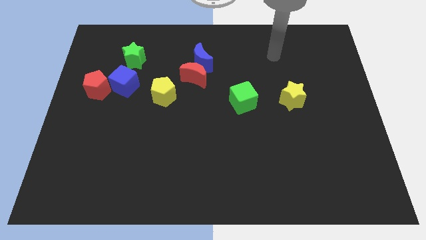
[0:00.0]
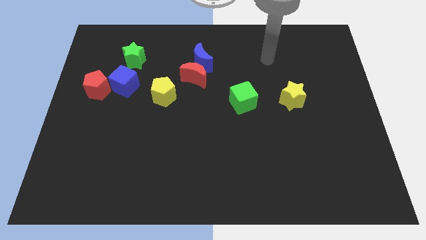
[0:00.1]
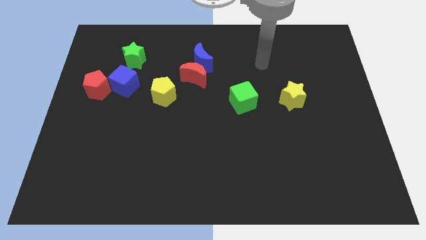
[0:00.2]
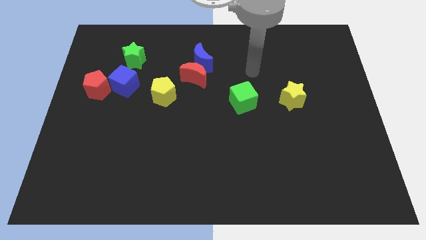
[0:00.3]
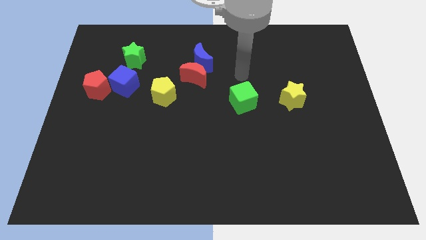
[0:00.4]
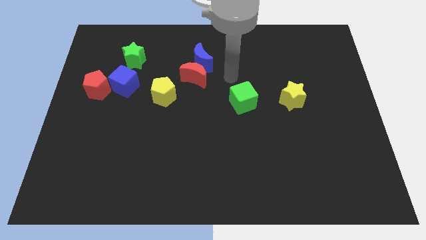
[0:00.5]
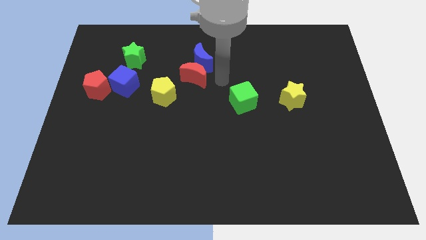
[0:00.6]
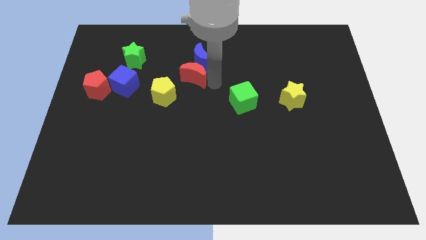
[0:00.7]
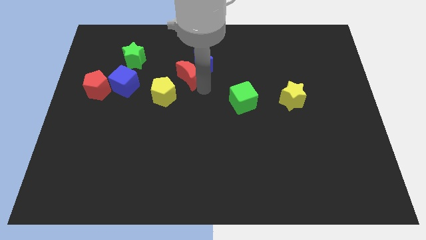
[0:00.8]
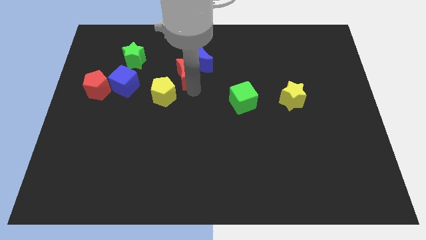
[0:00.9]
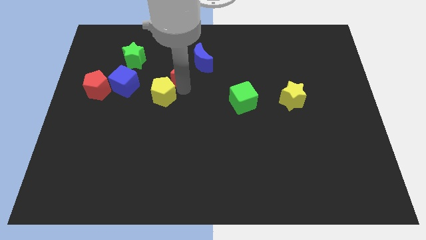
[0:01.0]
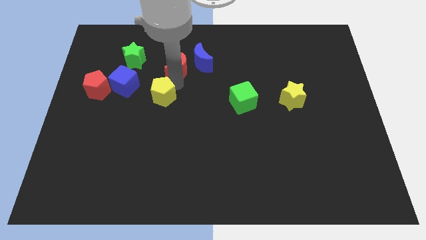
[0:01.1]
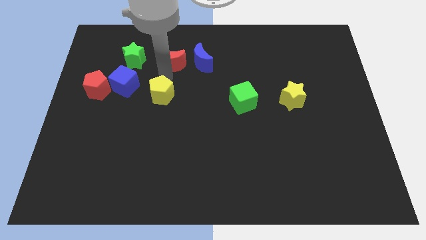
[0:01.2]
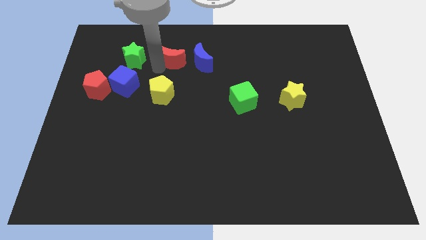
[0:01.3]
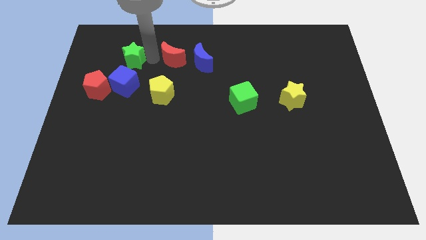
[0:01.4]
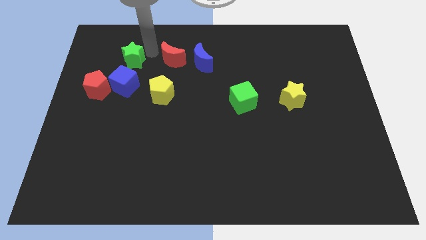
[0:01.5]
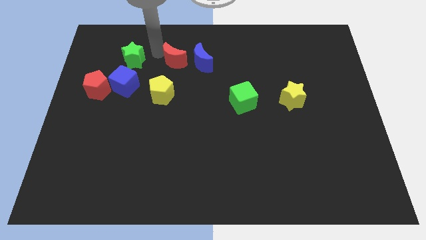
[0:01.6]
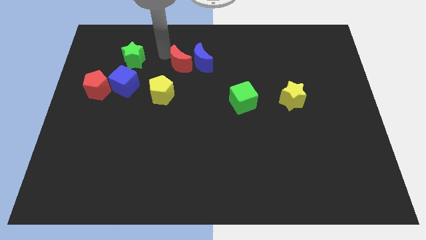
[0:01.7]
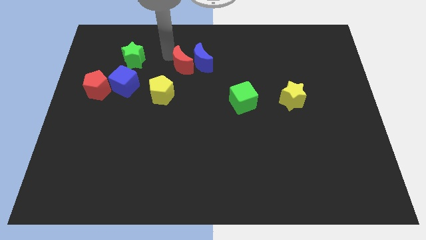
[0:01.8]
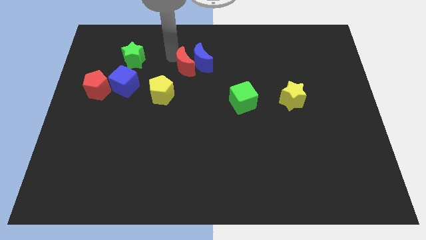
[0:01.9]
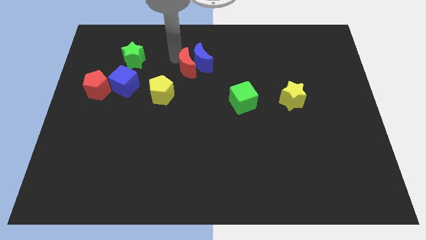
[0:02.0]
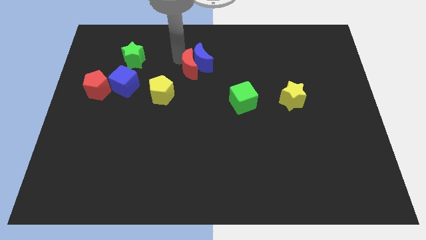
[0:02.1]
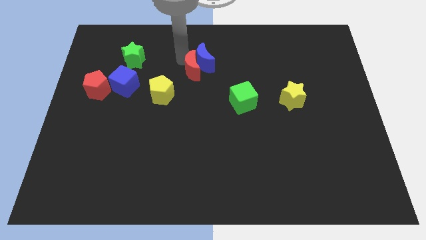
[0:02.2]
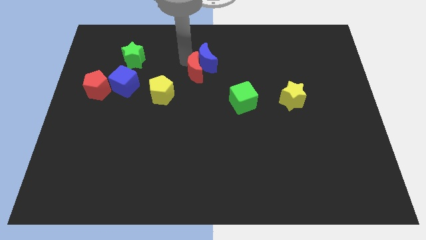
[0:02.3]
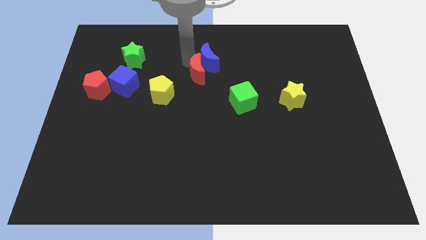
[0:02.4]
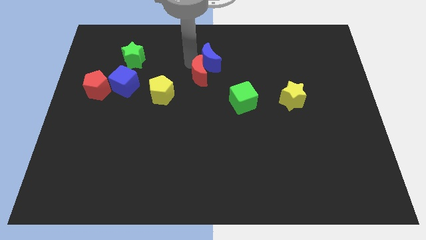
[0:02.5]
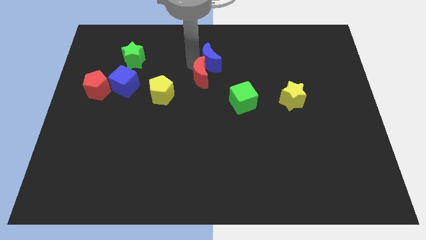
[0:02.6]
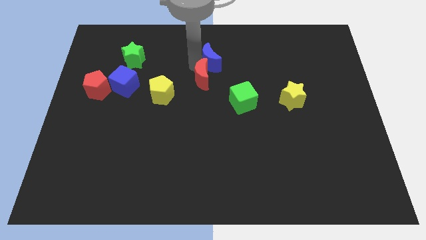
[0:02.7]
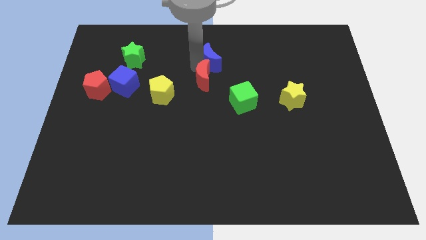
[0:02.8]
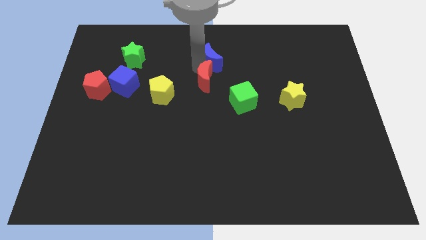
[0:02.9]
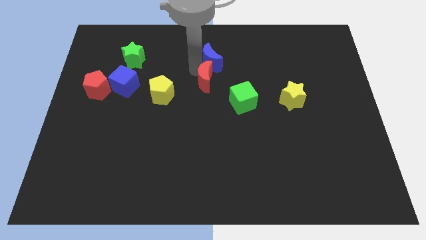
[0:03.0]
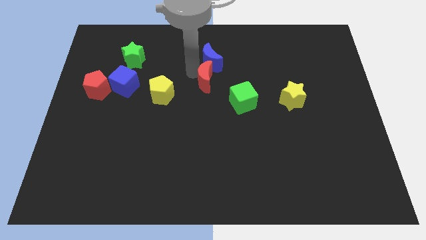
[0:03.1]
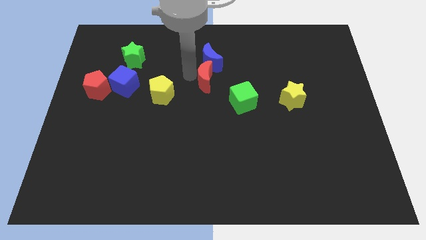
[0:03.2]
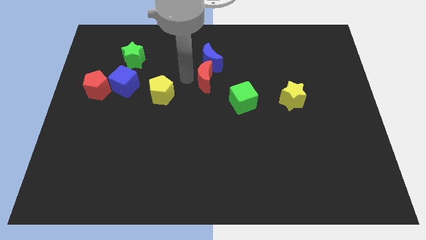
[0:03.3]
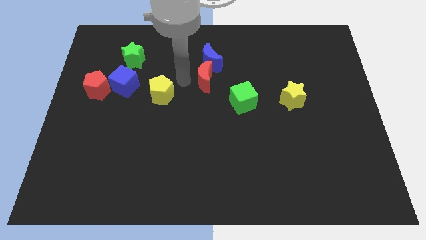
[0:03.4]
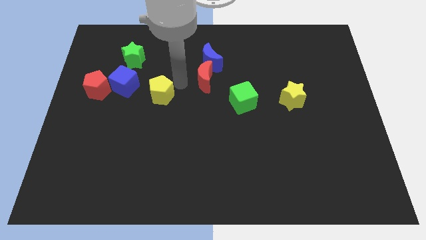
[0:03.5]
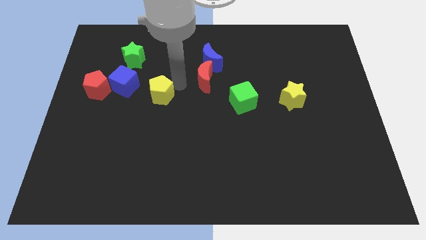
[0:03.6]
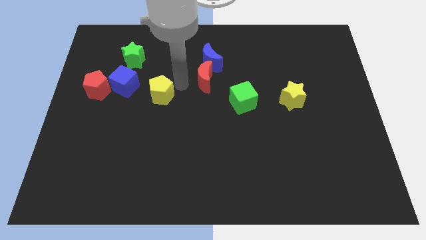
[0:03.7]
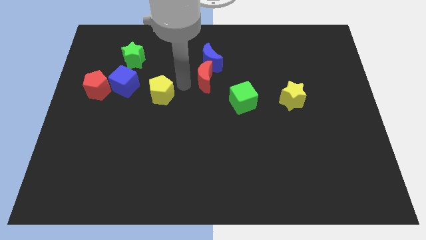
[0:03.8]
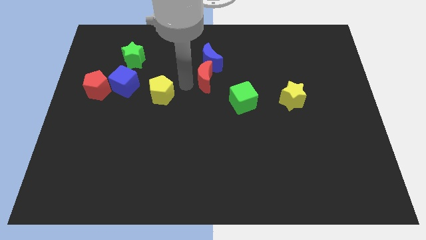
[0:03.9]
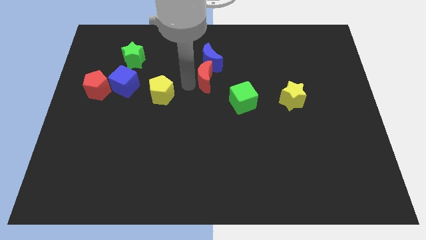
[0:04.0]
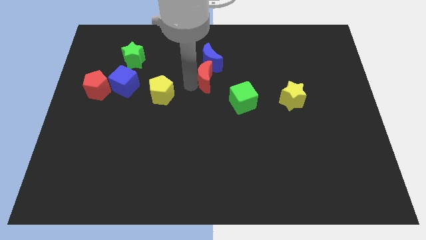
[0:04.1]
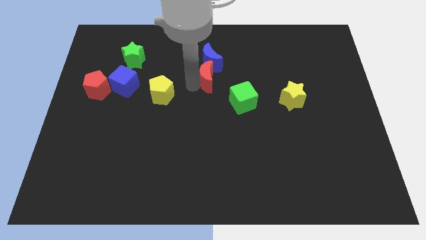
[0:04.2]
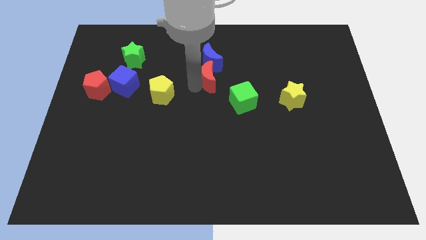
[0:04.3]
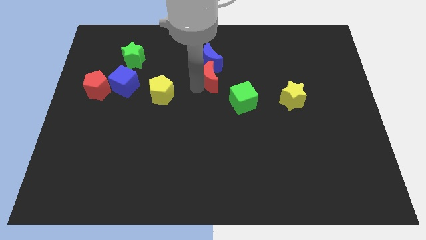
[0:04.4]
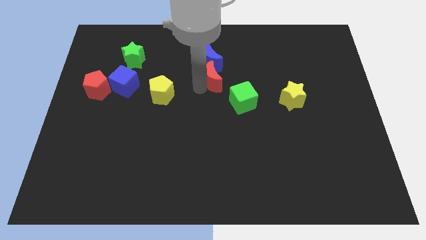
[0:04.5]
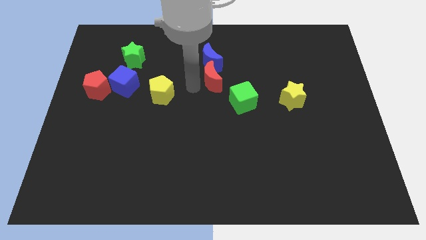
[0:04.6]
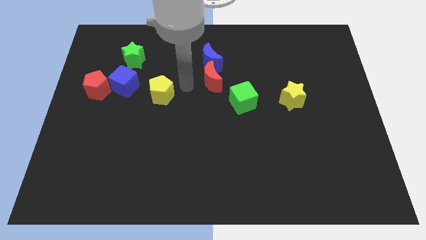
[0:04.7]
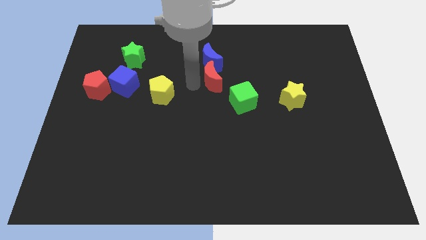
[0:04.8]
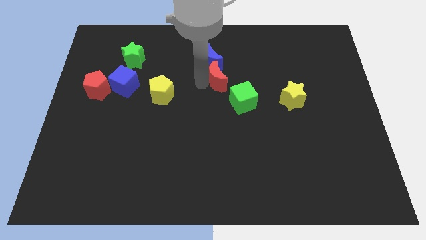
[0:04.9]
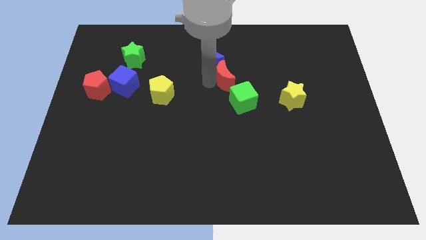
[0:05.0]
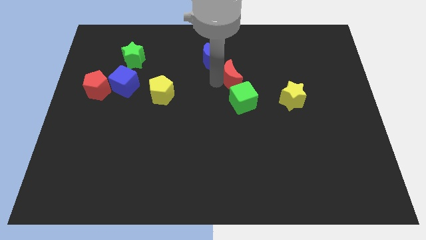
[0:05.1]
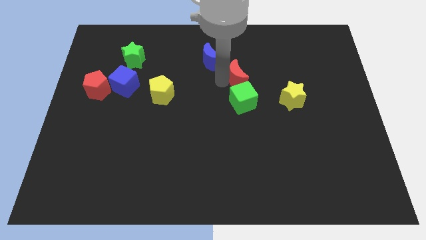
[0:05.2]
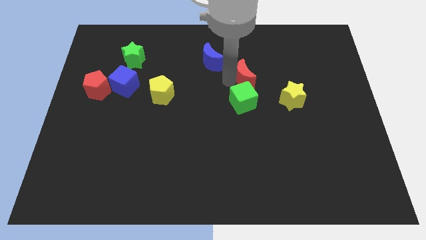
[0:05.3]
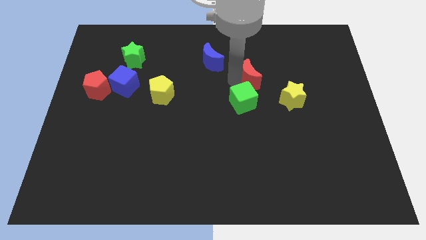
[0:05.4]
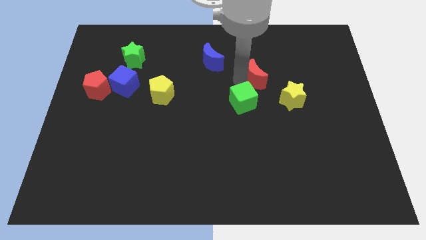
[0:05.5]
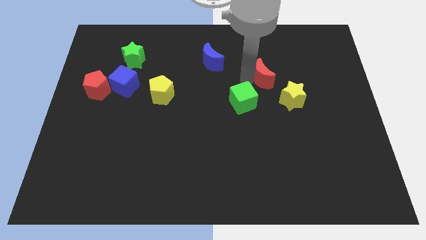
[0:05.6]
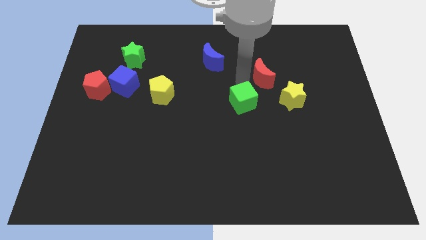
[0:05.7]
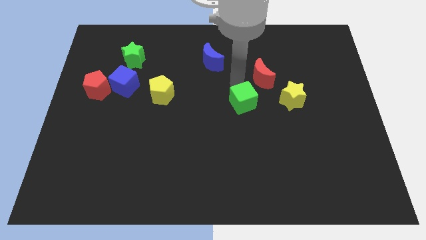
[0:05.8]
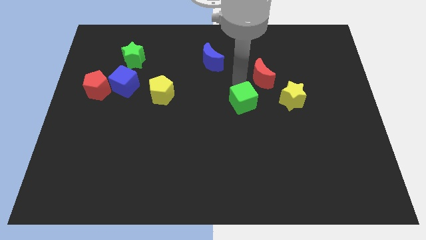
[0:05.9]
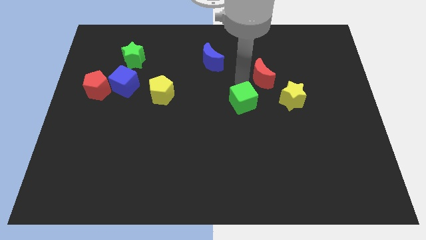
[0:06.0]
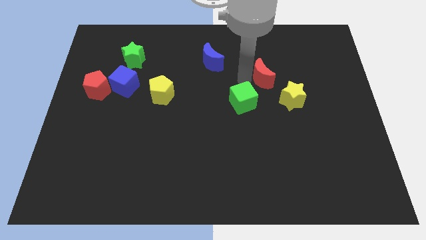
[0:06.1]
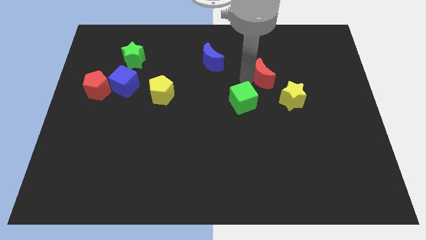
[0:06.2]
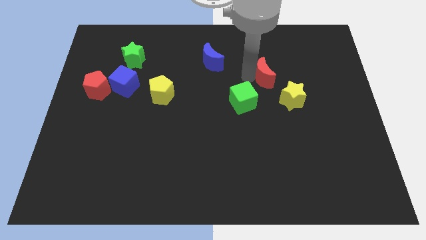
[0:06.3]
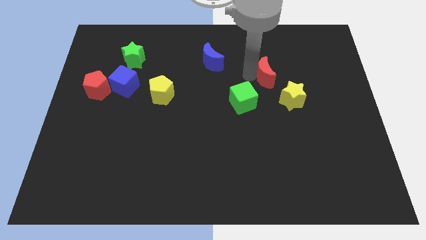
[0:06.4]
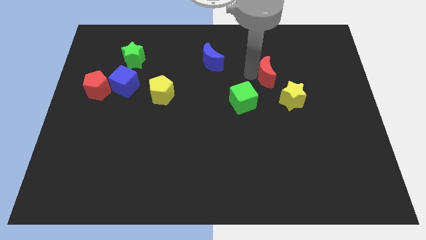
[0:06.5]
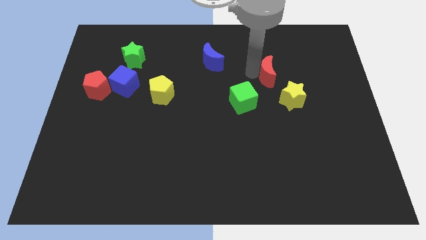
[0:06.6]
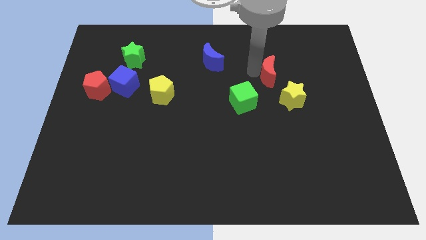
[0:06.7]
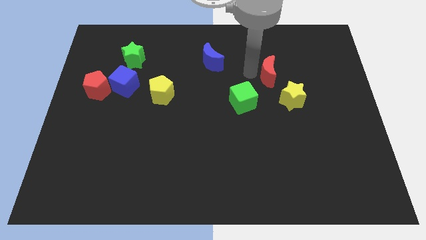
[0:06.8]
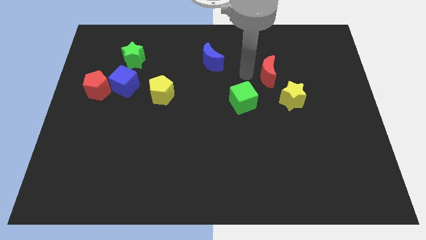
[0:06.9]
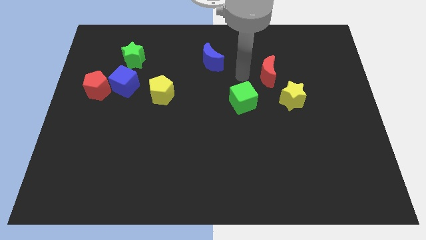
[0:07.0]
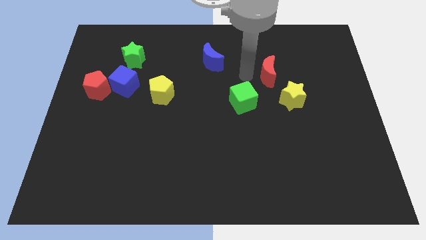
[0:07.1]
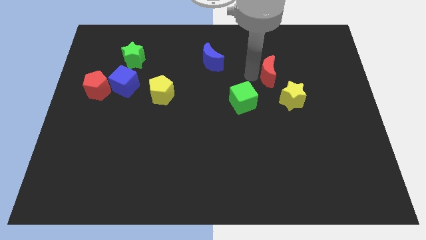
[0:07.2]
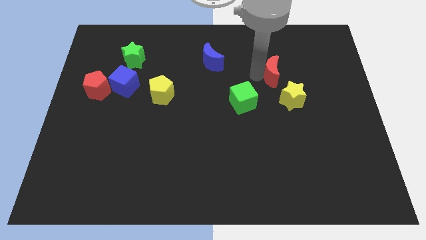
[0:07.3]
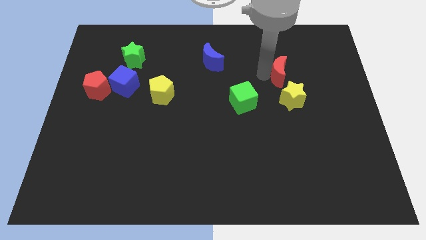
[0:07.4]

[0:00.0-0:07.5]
move the red moon to the right

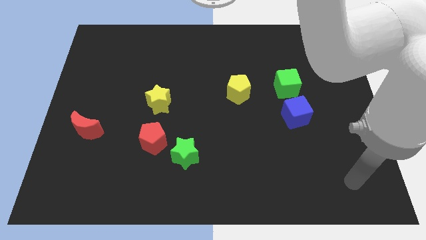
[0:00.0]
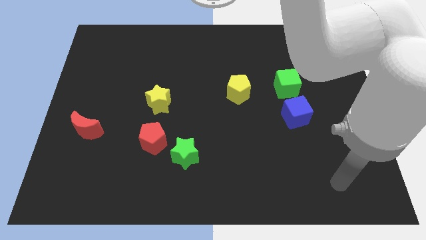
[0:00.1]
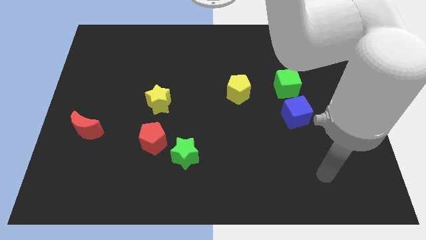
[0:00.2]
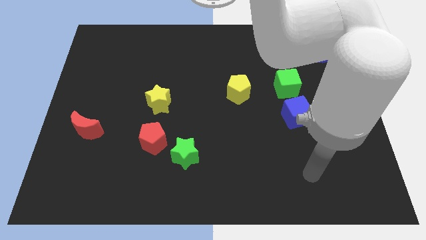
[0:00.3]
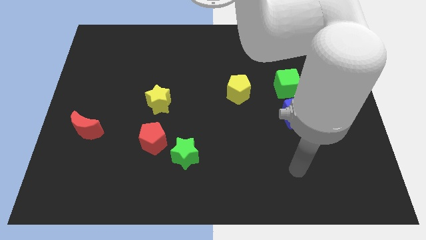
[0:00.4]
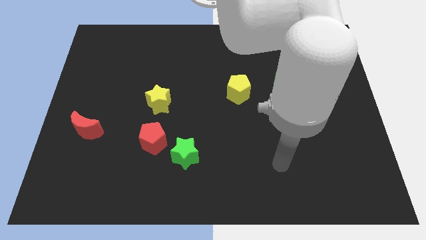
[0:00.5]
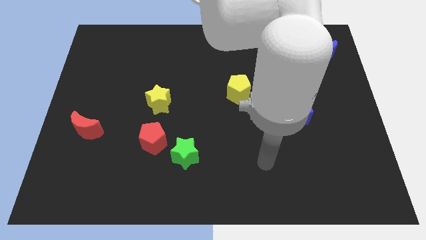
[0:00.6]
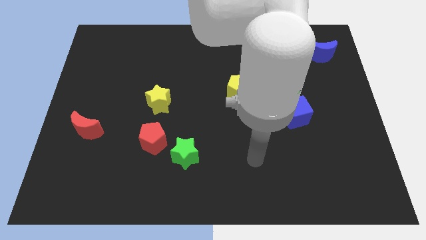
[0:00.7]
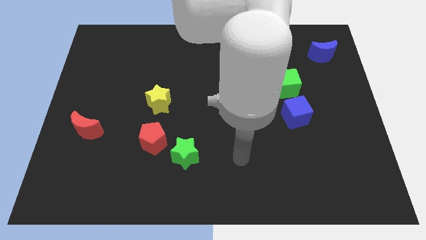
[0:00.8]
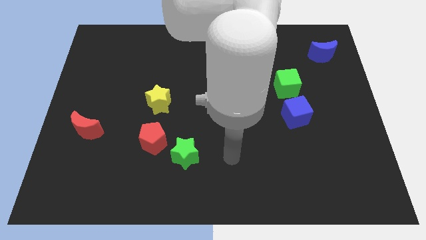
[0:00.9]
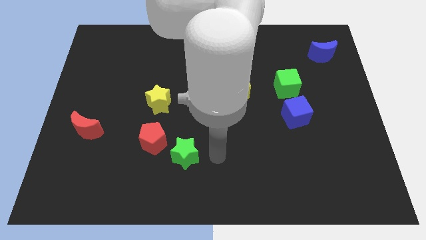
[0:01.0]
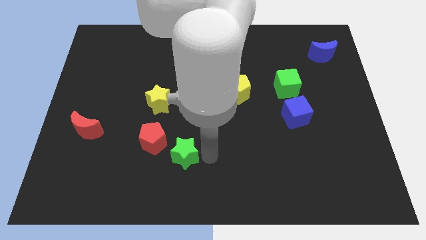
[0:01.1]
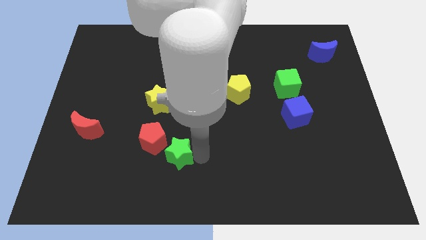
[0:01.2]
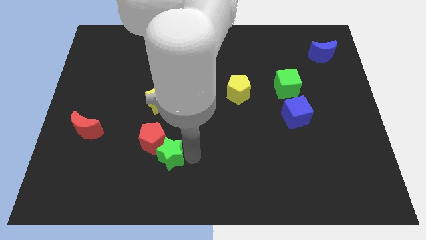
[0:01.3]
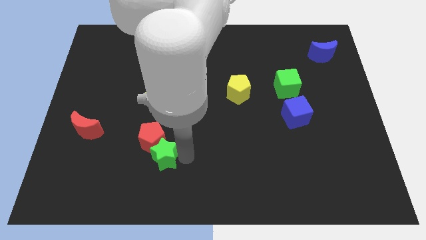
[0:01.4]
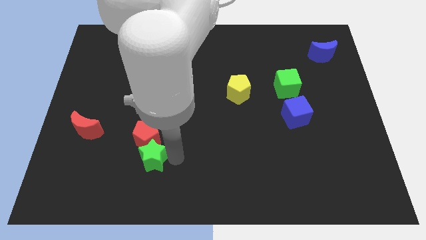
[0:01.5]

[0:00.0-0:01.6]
slightly push the green star to the left
